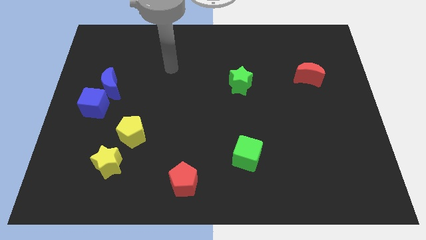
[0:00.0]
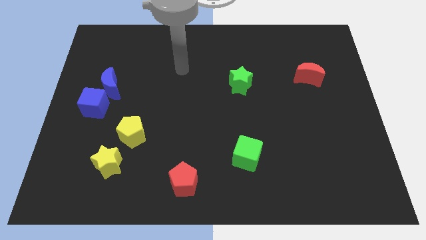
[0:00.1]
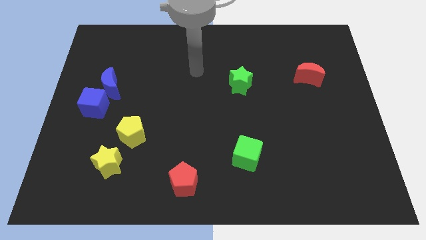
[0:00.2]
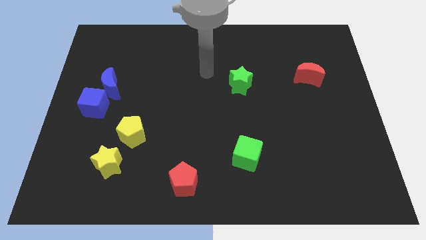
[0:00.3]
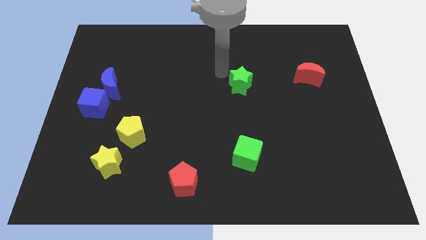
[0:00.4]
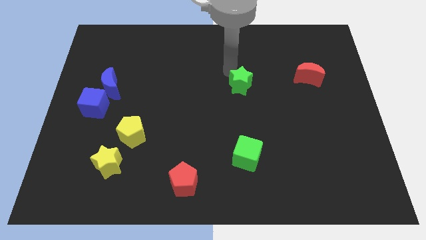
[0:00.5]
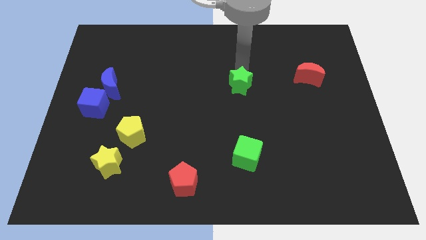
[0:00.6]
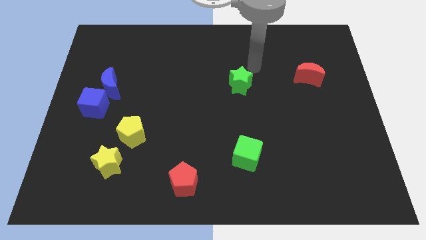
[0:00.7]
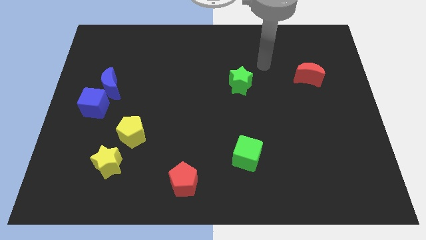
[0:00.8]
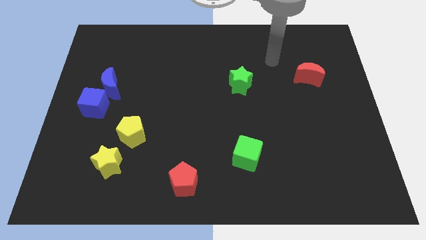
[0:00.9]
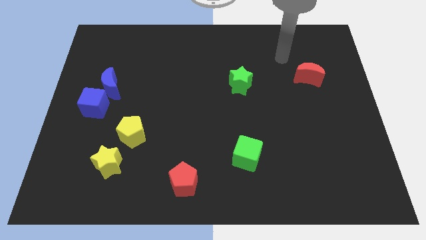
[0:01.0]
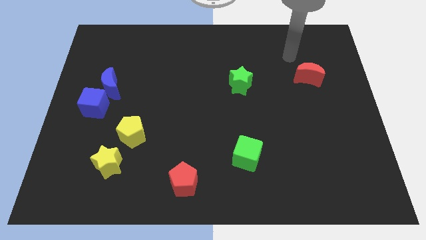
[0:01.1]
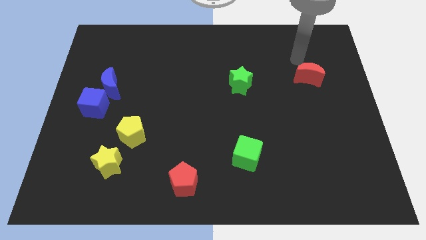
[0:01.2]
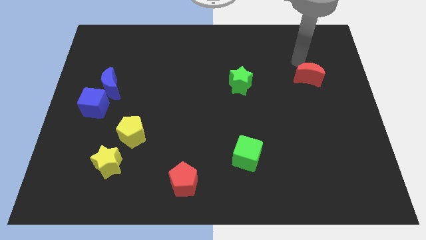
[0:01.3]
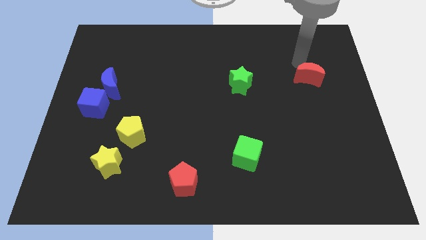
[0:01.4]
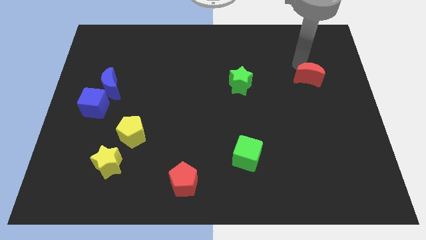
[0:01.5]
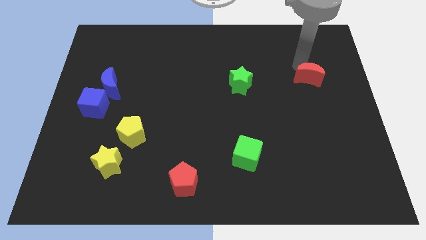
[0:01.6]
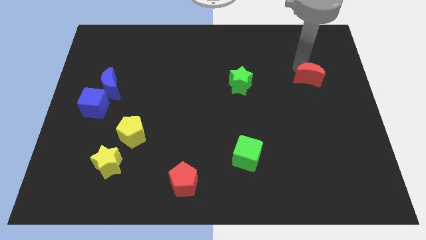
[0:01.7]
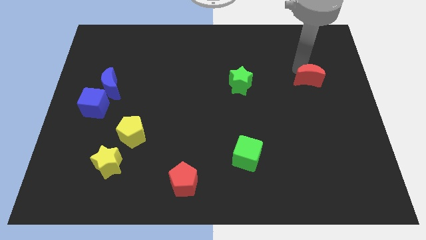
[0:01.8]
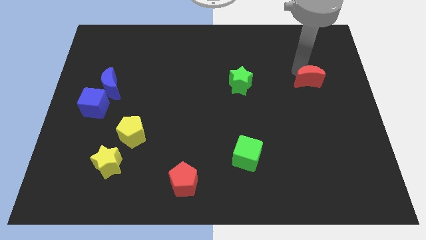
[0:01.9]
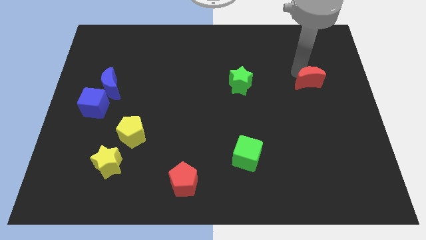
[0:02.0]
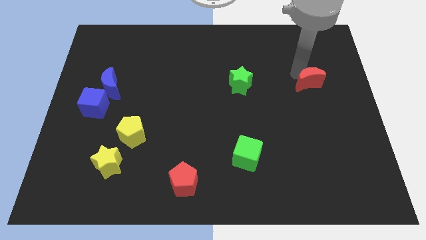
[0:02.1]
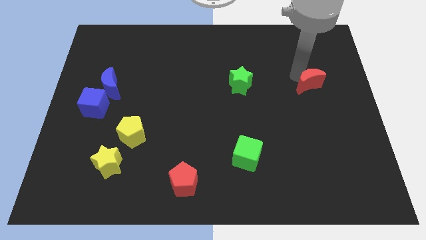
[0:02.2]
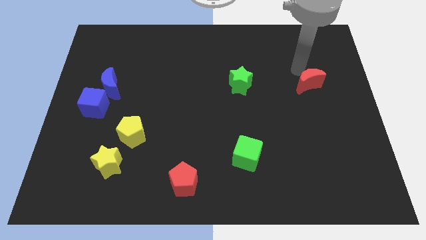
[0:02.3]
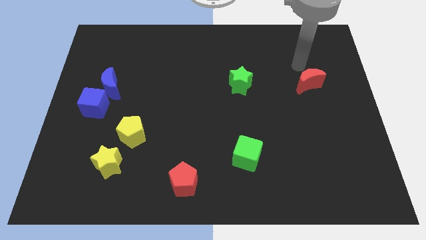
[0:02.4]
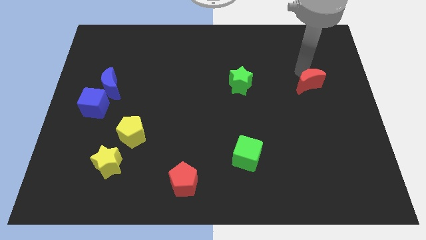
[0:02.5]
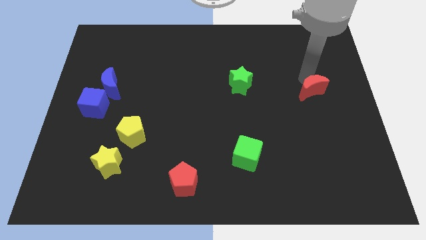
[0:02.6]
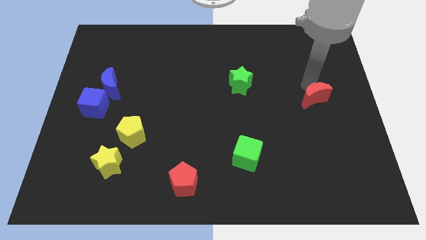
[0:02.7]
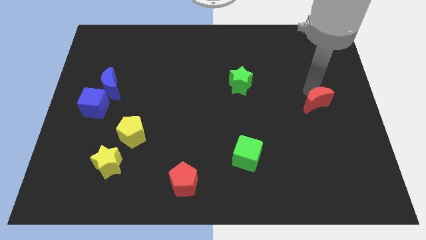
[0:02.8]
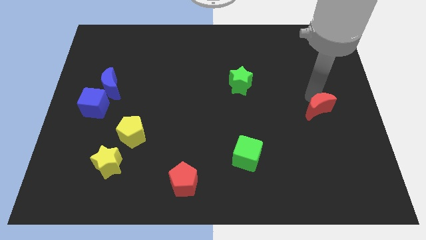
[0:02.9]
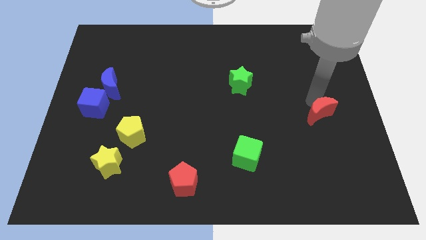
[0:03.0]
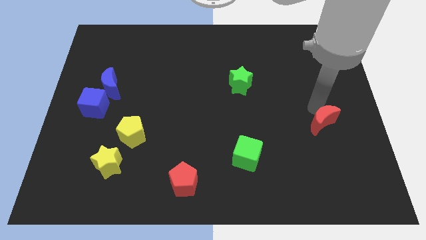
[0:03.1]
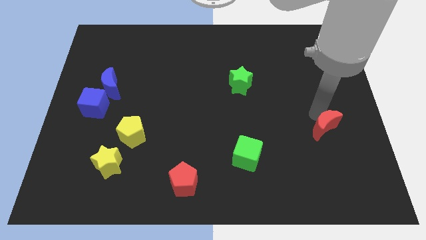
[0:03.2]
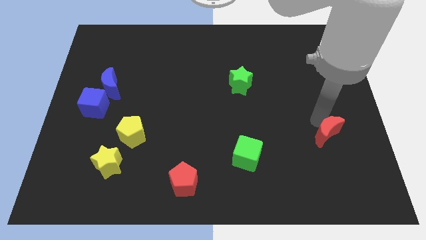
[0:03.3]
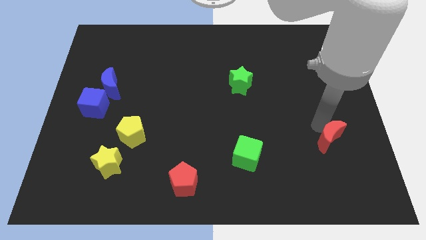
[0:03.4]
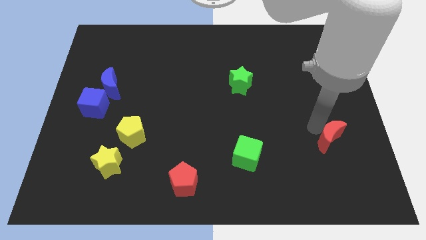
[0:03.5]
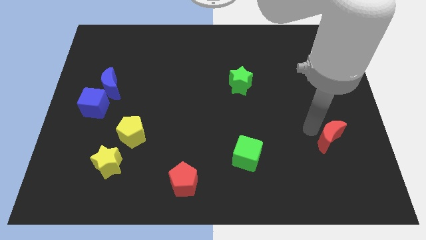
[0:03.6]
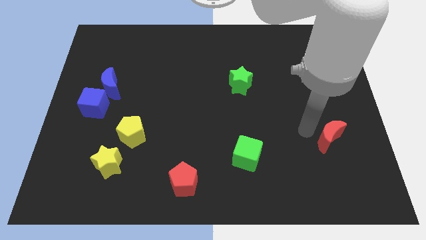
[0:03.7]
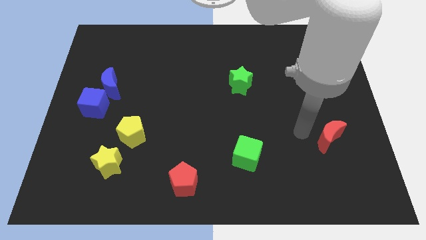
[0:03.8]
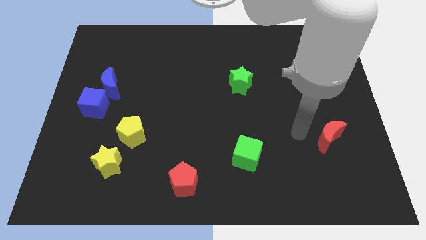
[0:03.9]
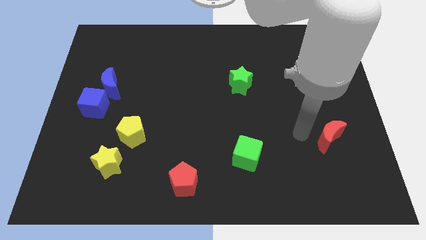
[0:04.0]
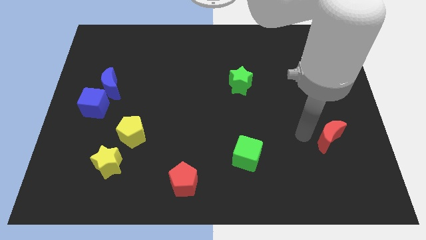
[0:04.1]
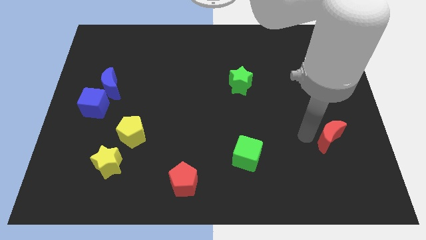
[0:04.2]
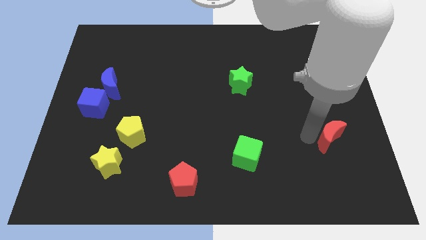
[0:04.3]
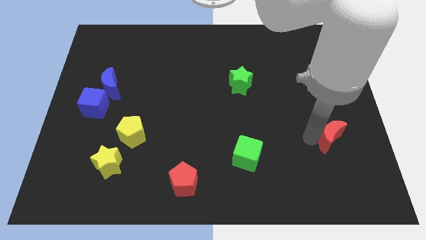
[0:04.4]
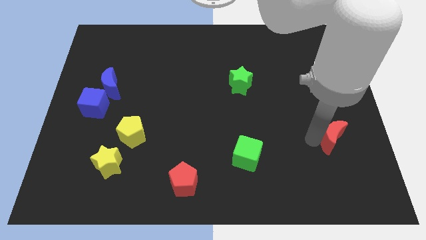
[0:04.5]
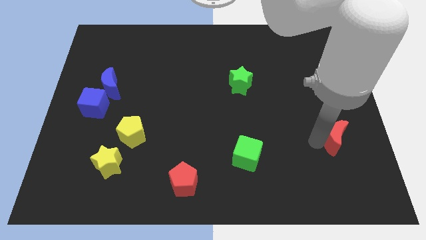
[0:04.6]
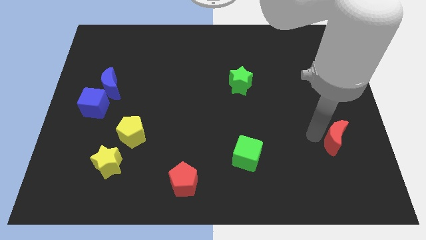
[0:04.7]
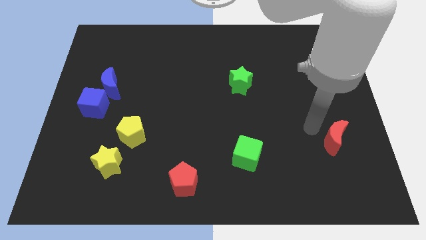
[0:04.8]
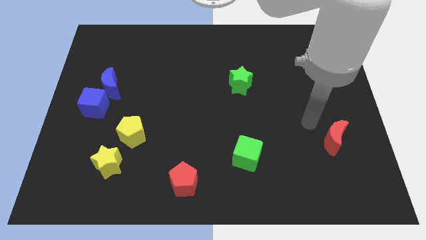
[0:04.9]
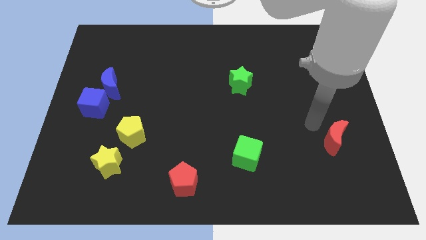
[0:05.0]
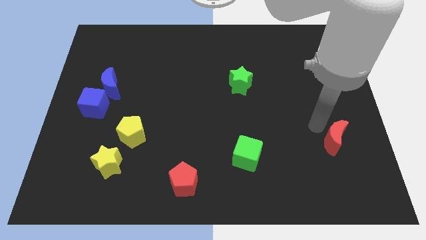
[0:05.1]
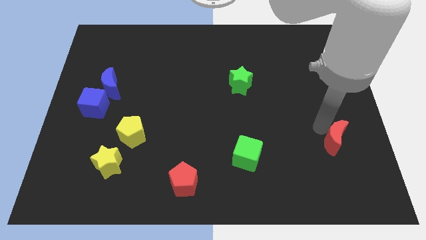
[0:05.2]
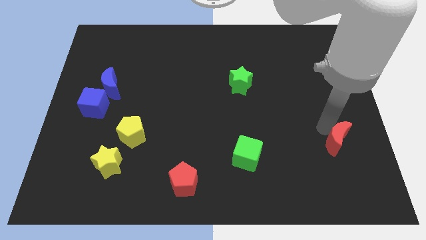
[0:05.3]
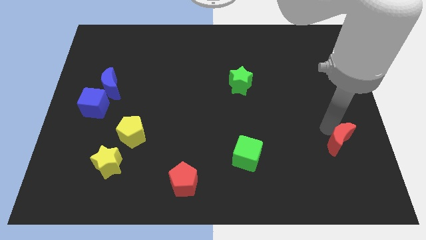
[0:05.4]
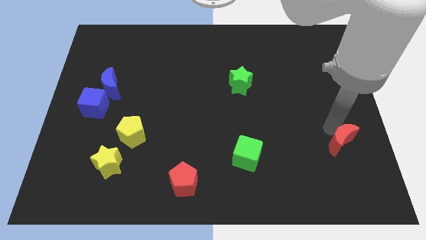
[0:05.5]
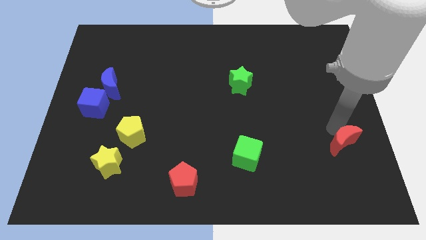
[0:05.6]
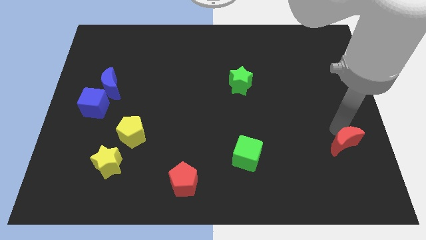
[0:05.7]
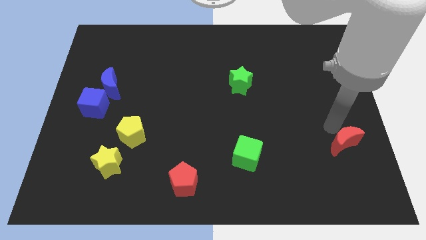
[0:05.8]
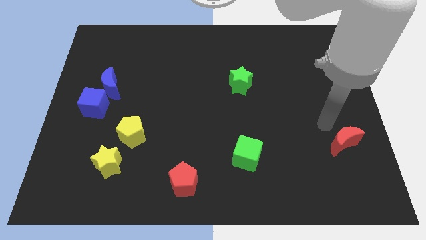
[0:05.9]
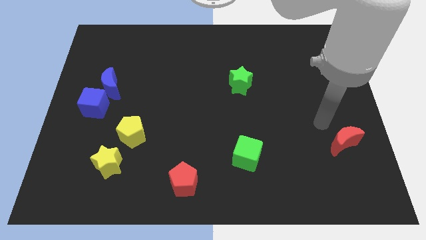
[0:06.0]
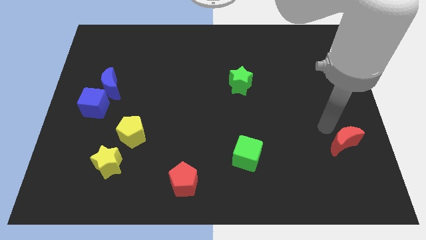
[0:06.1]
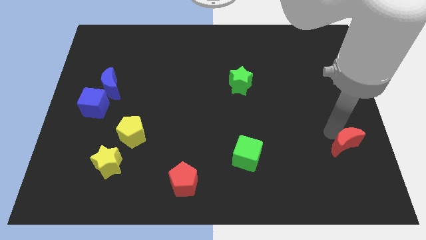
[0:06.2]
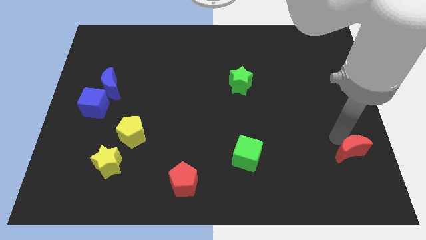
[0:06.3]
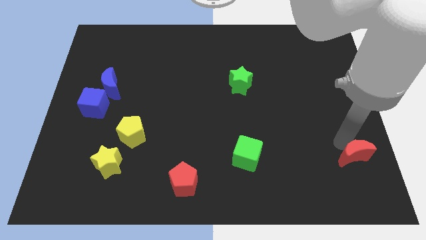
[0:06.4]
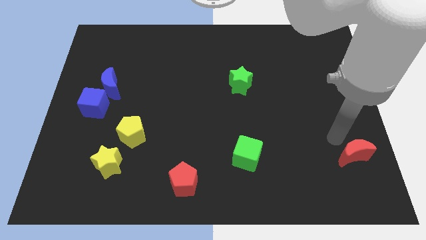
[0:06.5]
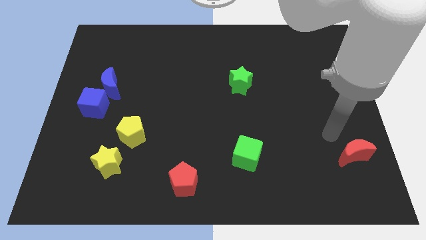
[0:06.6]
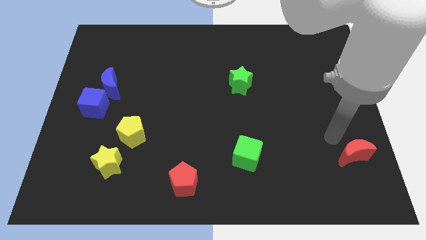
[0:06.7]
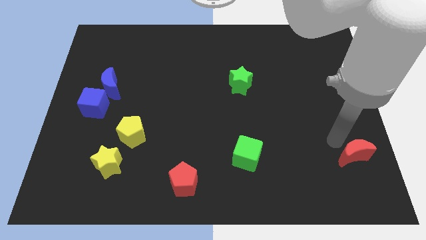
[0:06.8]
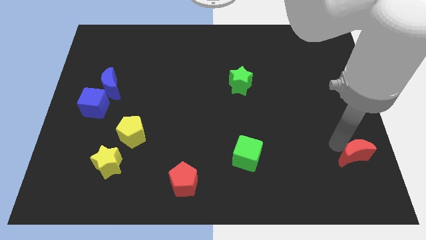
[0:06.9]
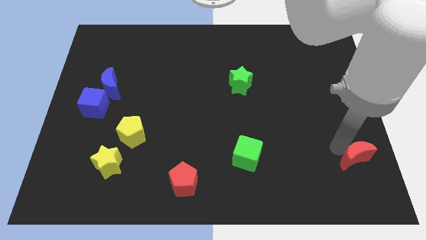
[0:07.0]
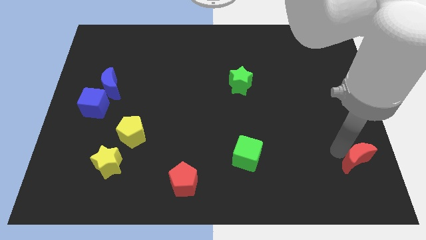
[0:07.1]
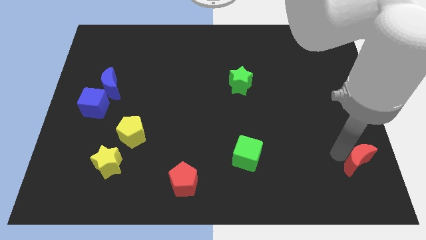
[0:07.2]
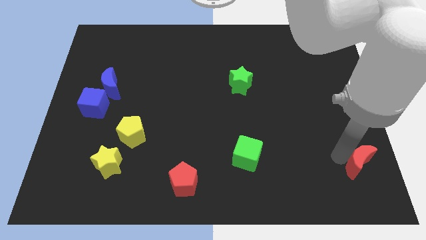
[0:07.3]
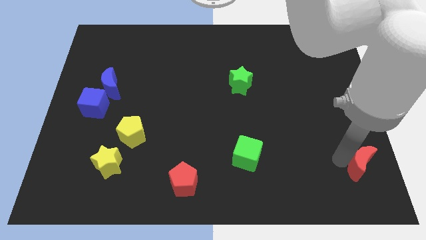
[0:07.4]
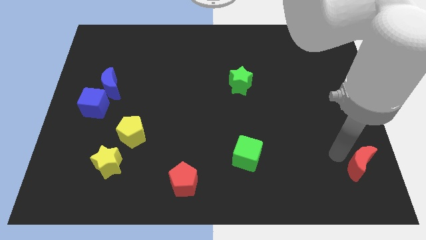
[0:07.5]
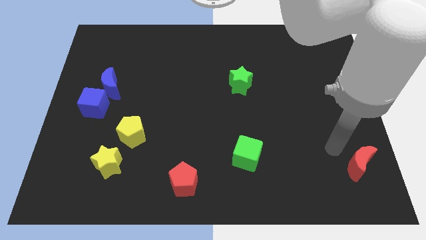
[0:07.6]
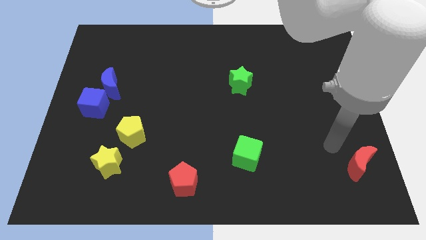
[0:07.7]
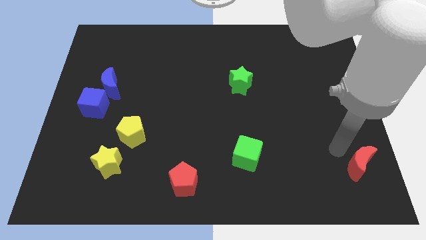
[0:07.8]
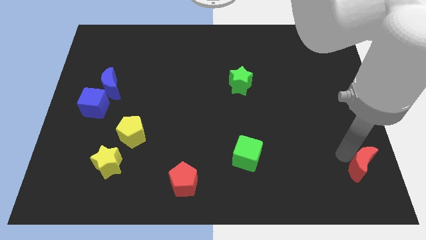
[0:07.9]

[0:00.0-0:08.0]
push the red moon to the bottom right corner
